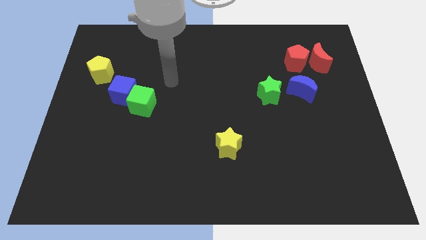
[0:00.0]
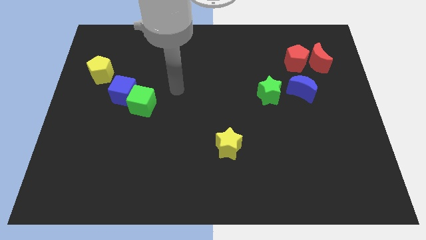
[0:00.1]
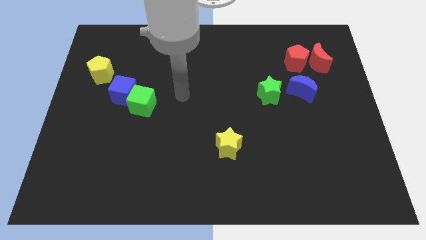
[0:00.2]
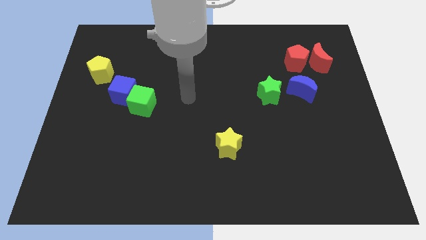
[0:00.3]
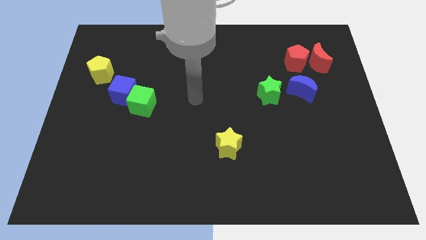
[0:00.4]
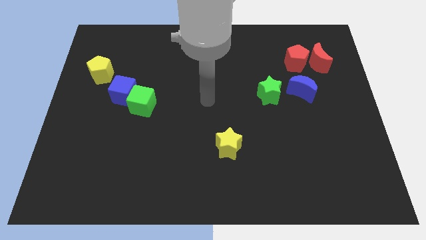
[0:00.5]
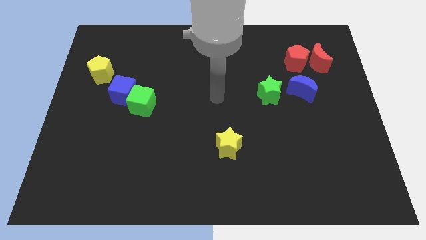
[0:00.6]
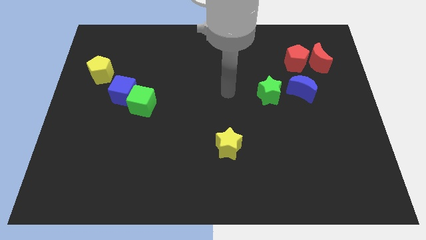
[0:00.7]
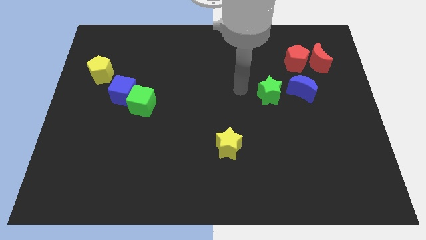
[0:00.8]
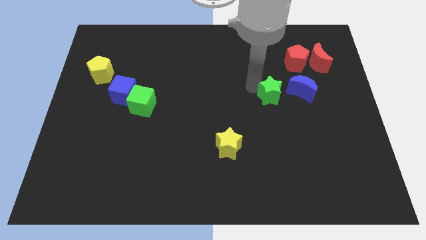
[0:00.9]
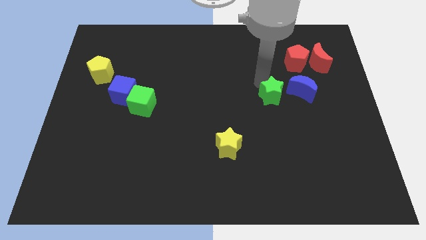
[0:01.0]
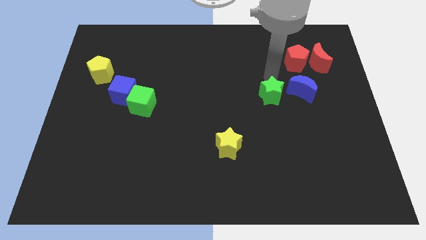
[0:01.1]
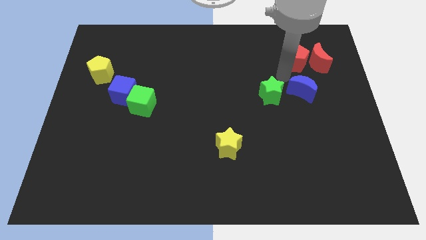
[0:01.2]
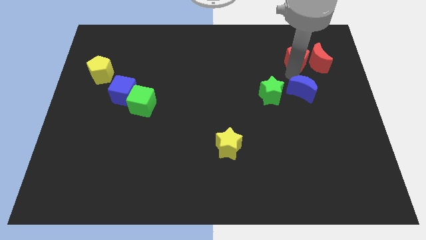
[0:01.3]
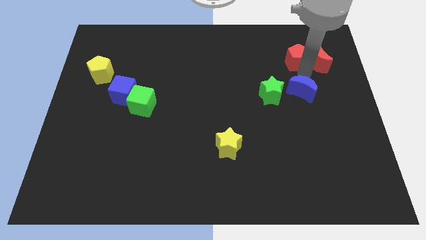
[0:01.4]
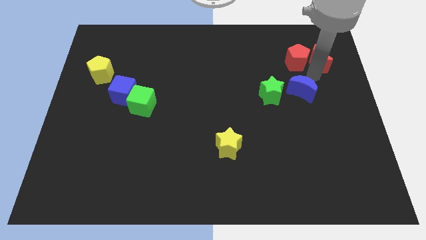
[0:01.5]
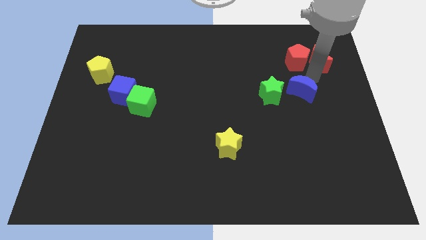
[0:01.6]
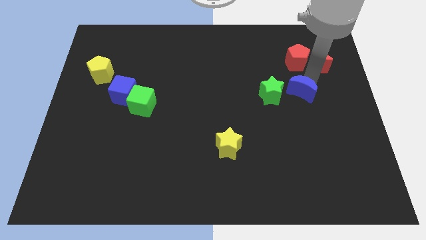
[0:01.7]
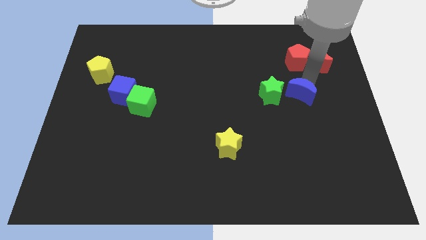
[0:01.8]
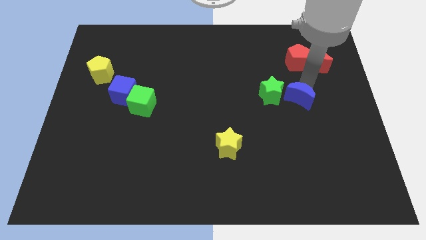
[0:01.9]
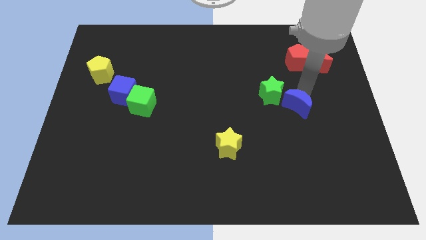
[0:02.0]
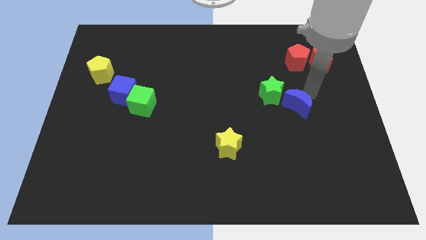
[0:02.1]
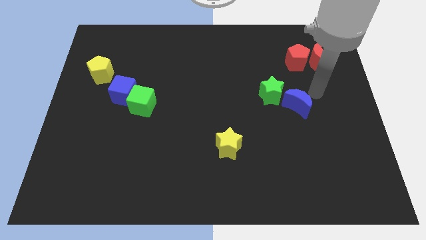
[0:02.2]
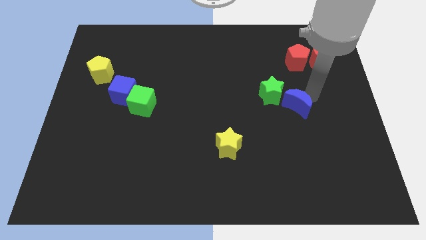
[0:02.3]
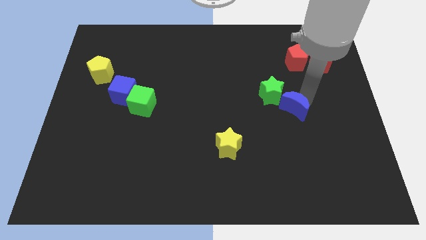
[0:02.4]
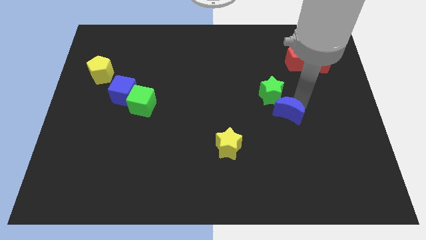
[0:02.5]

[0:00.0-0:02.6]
slightly move the blue moon downwards and to the left diagonally

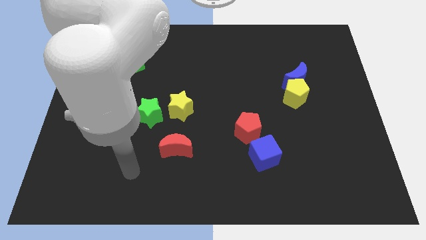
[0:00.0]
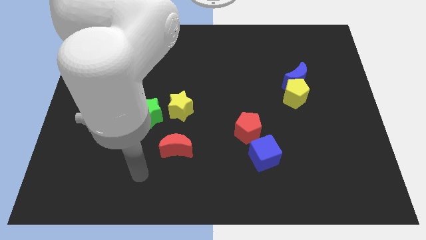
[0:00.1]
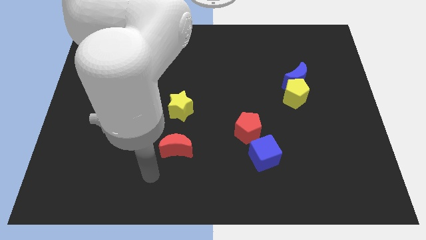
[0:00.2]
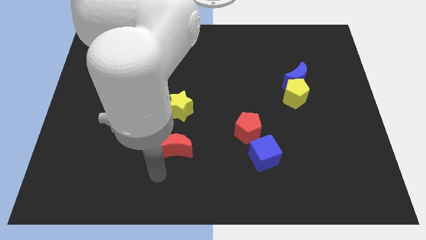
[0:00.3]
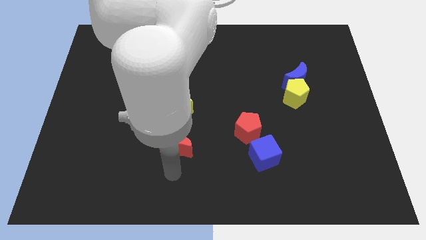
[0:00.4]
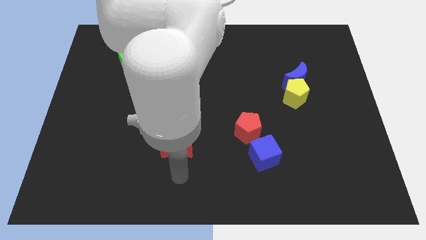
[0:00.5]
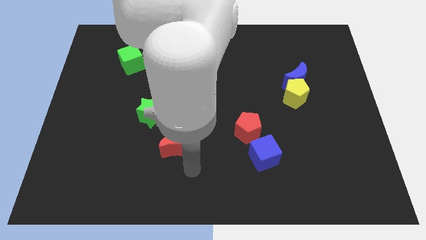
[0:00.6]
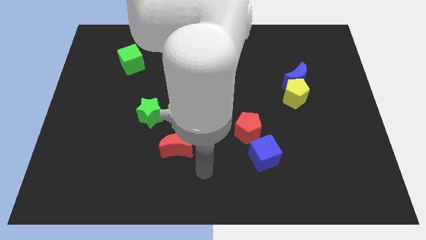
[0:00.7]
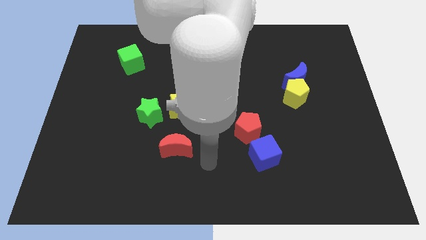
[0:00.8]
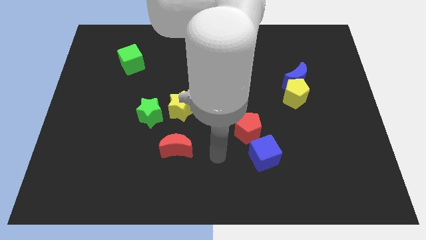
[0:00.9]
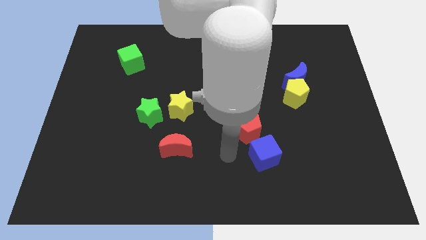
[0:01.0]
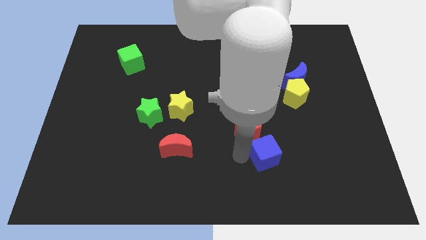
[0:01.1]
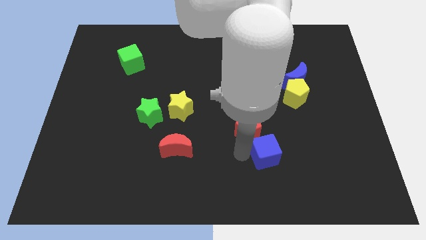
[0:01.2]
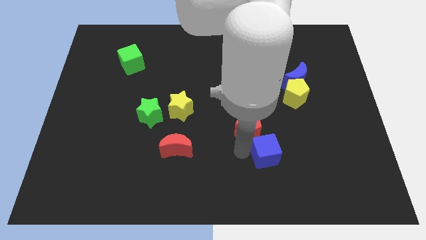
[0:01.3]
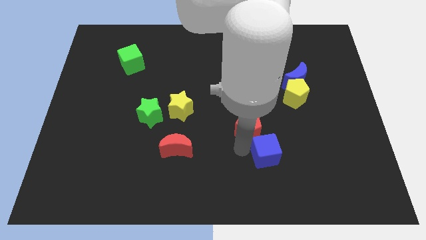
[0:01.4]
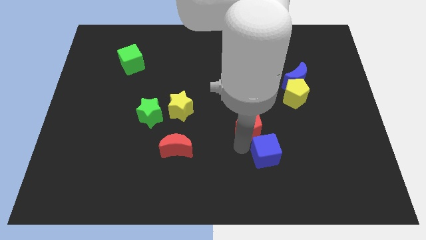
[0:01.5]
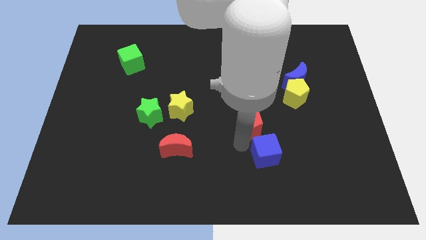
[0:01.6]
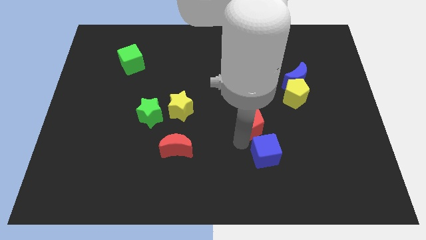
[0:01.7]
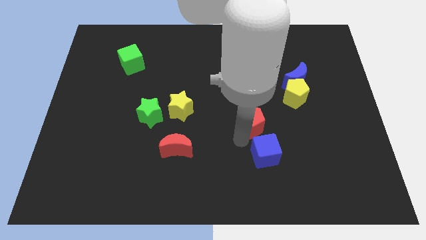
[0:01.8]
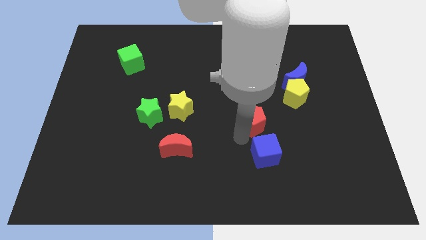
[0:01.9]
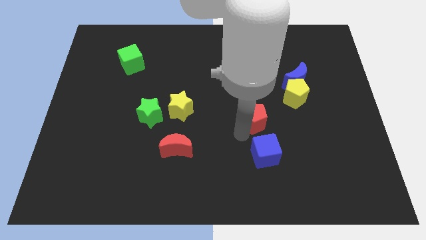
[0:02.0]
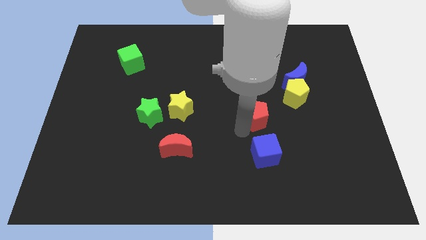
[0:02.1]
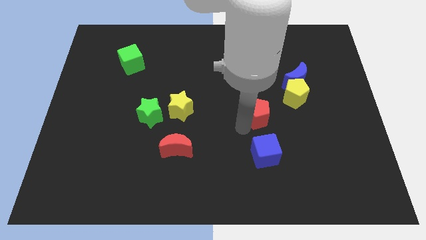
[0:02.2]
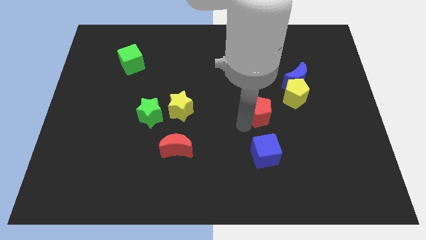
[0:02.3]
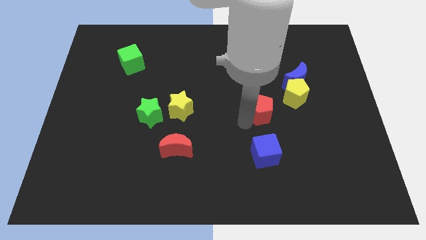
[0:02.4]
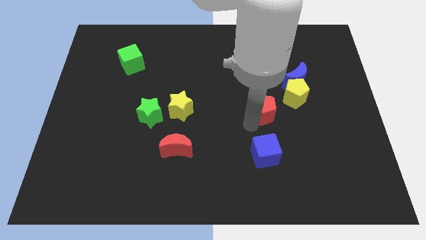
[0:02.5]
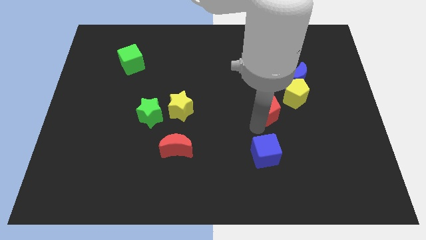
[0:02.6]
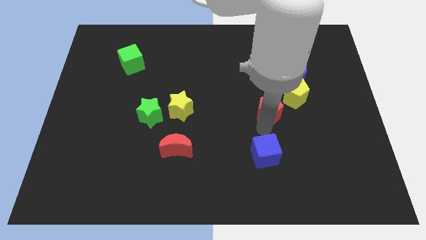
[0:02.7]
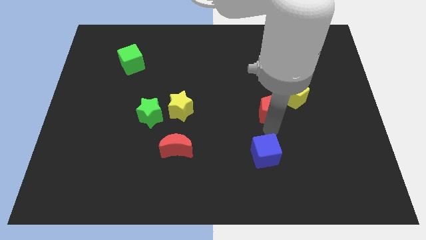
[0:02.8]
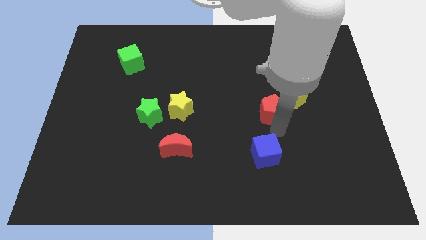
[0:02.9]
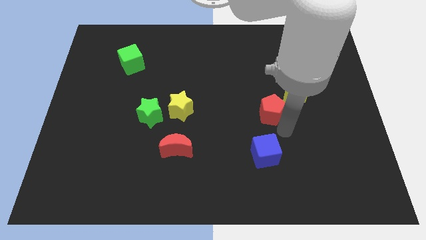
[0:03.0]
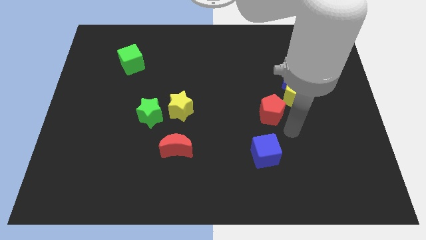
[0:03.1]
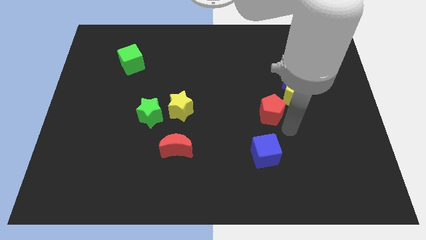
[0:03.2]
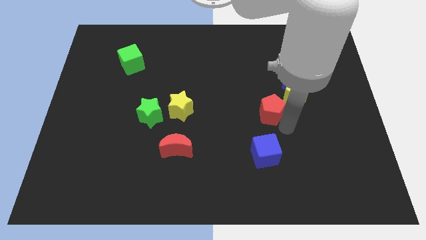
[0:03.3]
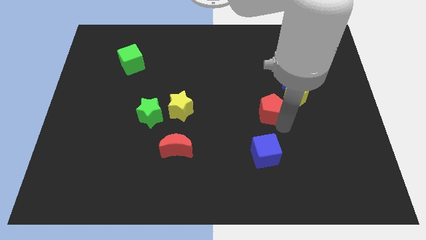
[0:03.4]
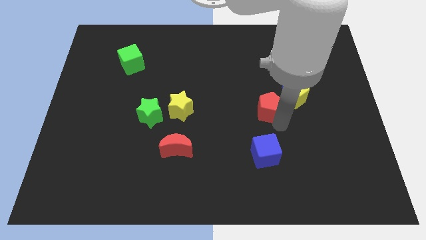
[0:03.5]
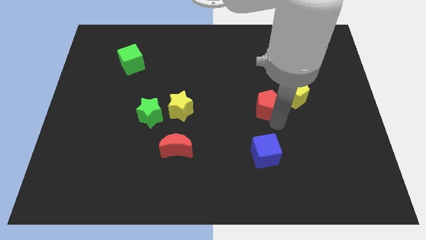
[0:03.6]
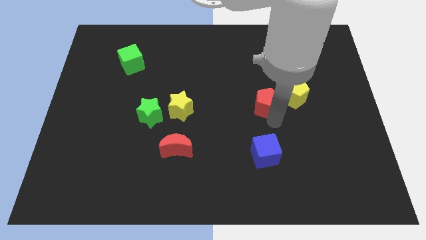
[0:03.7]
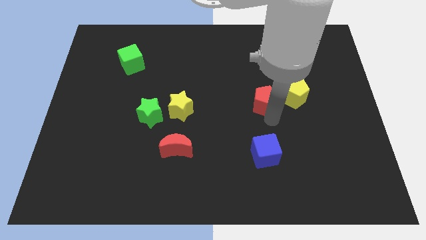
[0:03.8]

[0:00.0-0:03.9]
slightly slide the red pentagon upwards

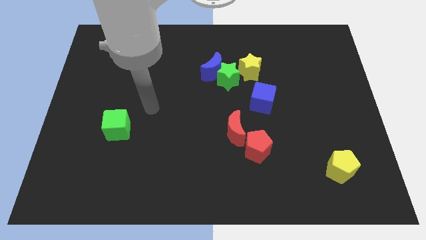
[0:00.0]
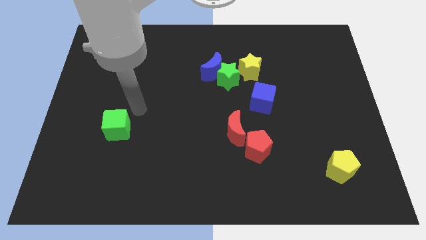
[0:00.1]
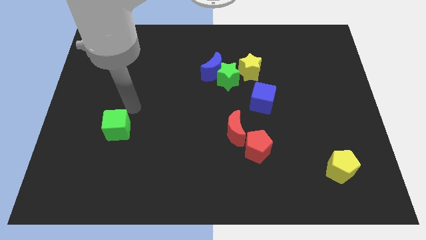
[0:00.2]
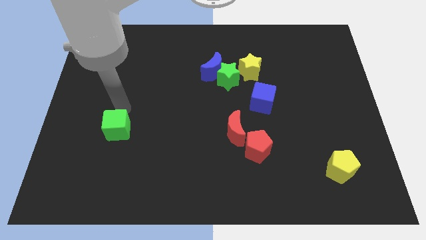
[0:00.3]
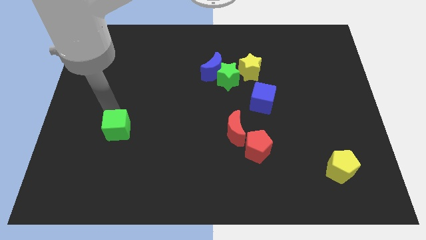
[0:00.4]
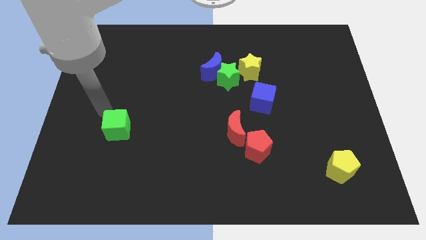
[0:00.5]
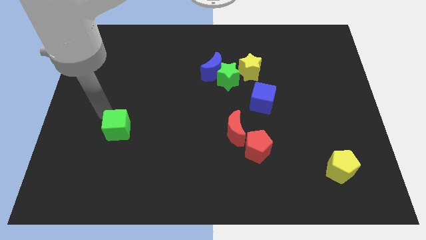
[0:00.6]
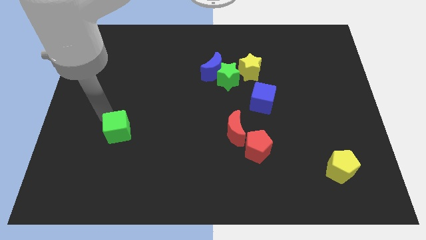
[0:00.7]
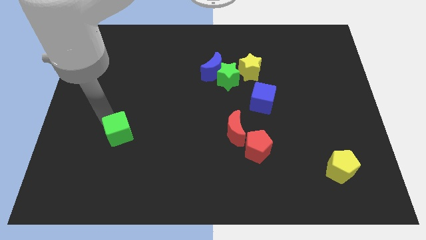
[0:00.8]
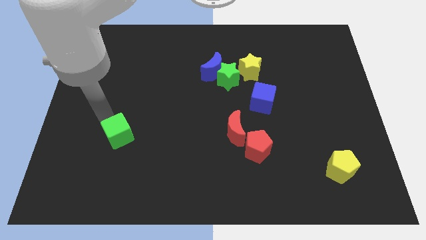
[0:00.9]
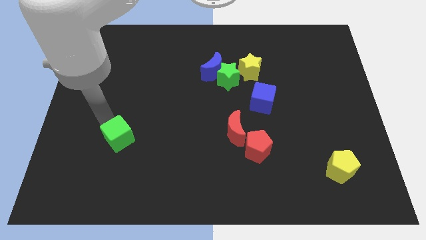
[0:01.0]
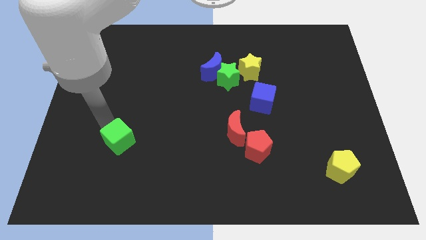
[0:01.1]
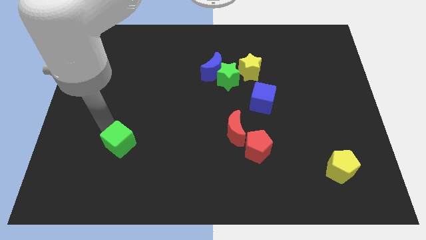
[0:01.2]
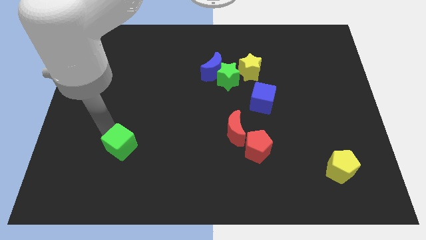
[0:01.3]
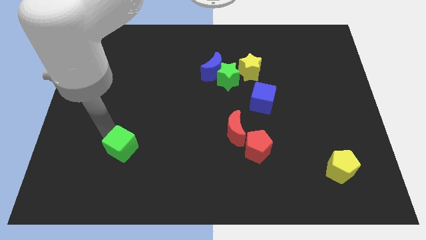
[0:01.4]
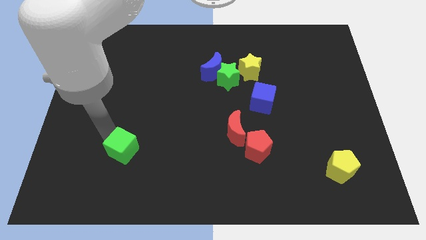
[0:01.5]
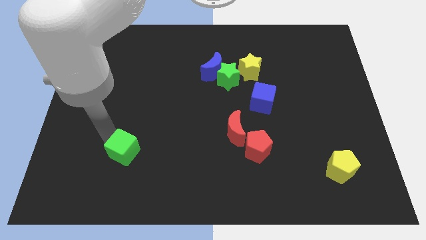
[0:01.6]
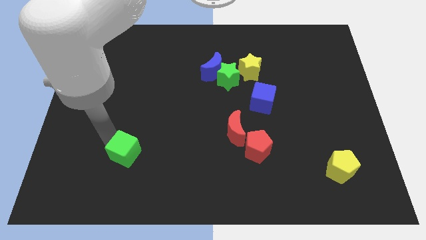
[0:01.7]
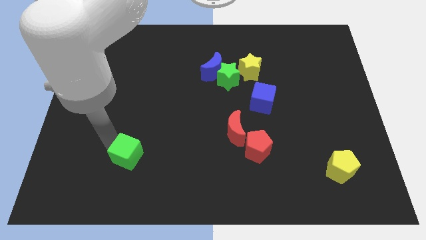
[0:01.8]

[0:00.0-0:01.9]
move the green cube downwards and then right slightly
